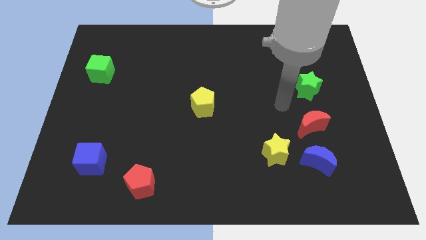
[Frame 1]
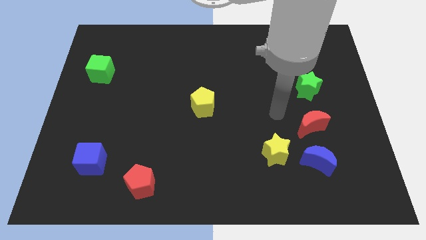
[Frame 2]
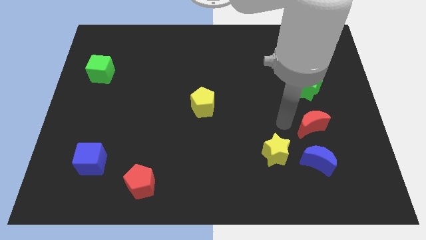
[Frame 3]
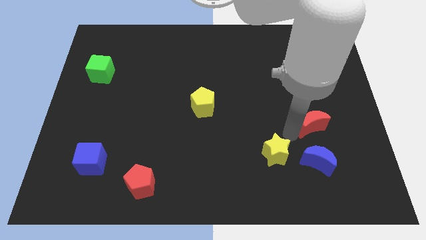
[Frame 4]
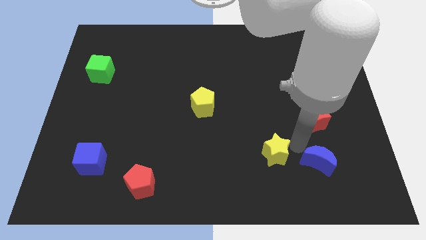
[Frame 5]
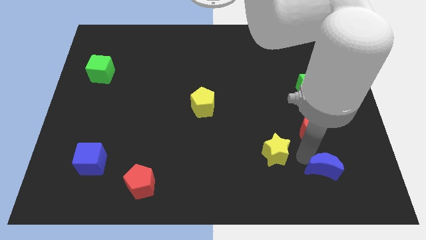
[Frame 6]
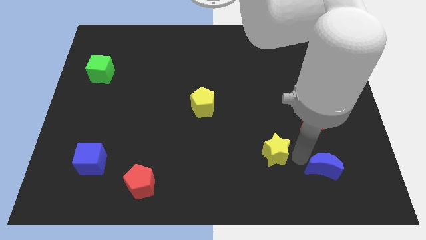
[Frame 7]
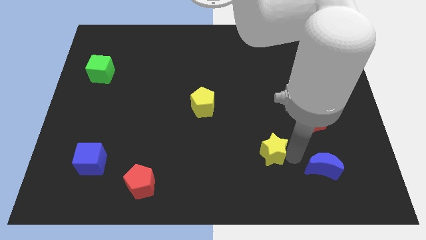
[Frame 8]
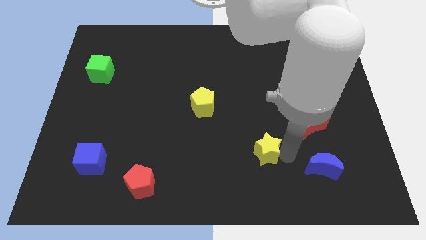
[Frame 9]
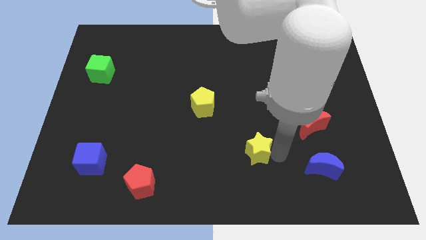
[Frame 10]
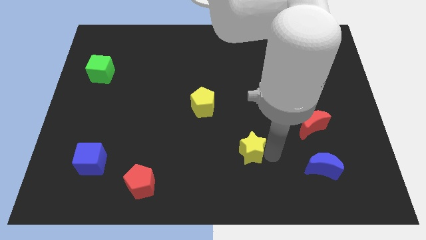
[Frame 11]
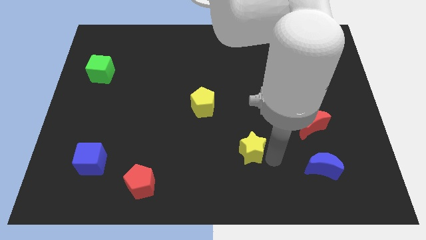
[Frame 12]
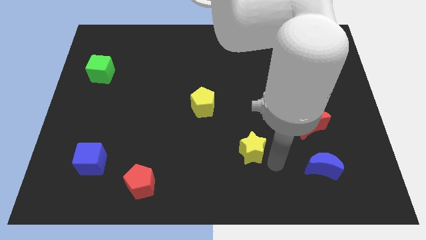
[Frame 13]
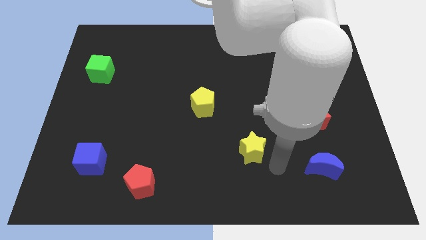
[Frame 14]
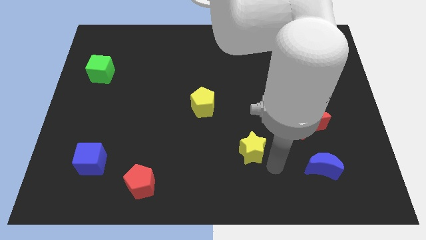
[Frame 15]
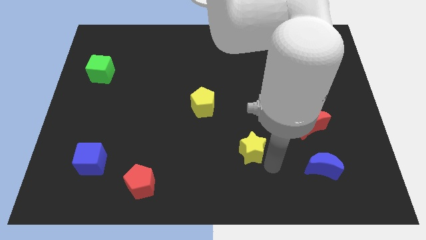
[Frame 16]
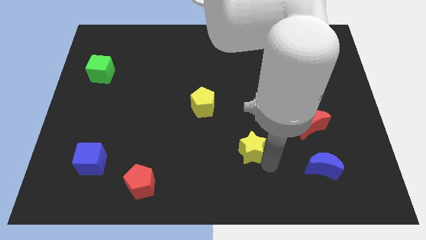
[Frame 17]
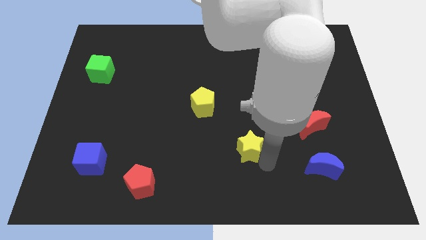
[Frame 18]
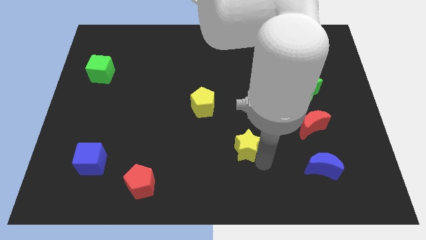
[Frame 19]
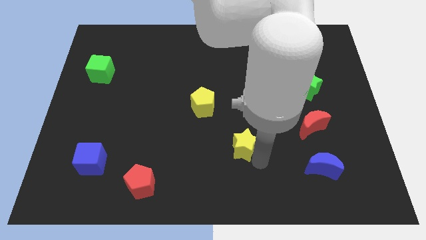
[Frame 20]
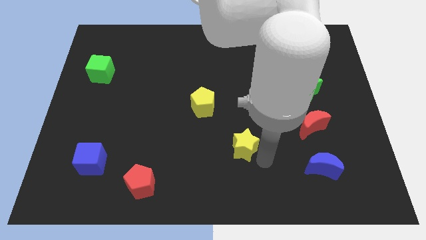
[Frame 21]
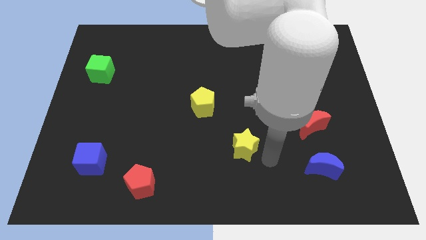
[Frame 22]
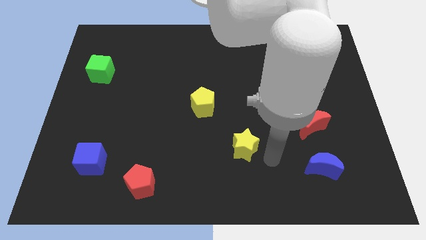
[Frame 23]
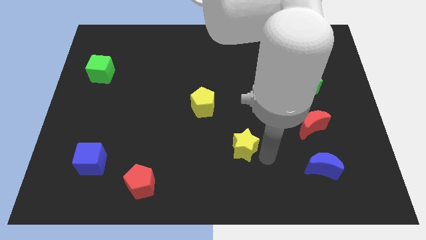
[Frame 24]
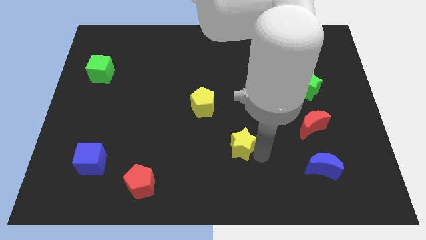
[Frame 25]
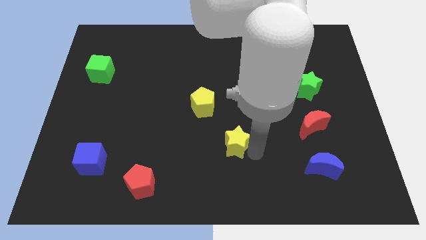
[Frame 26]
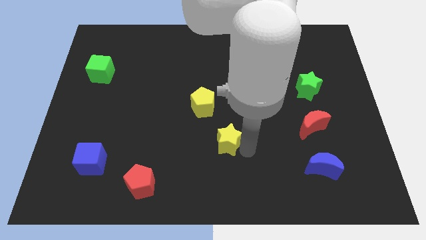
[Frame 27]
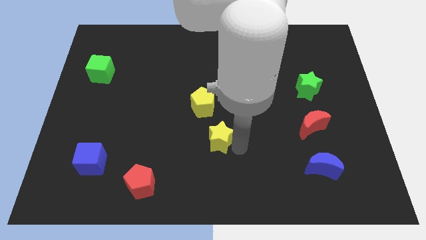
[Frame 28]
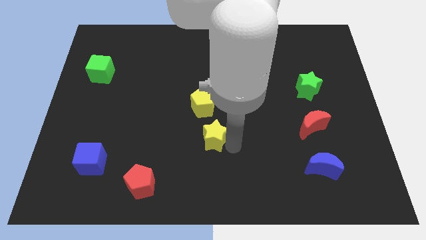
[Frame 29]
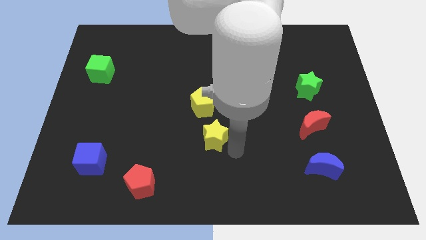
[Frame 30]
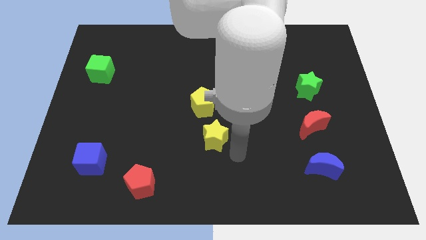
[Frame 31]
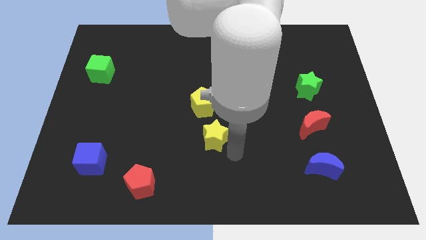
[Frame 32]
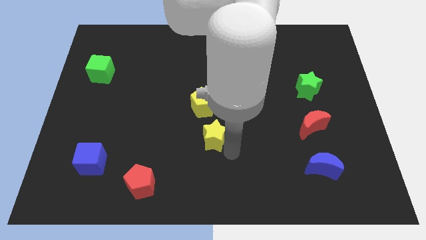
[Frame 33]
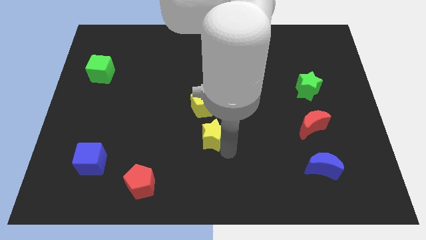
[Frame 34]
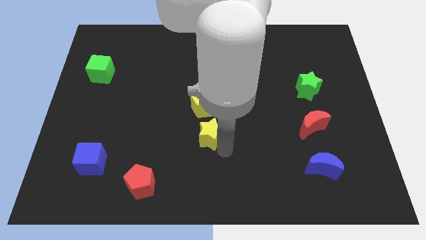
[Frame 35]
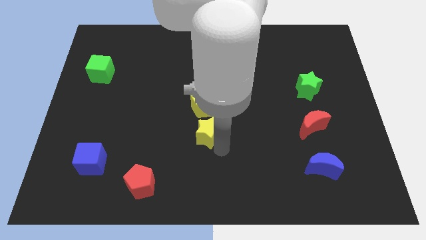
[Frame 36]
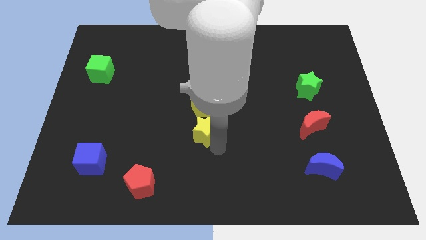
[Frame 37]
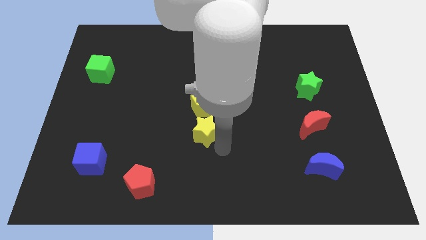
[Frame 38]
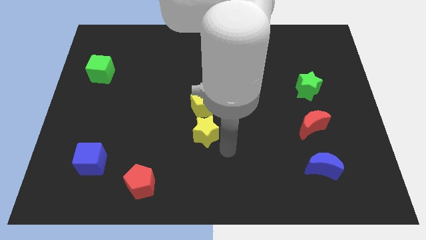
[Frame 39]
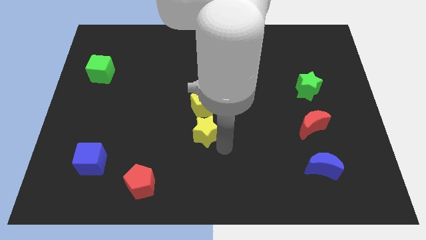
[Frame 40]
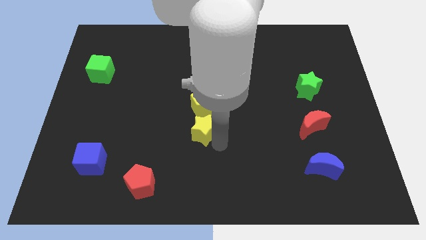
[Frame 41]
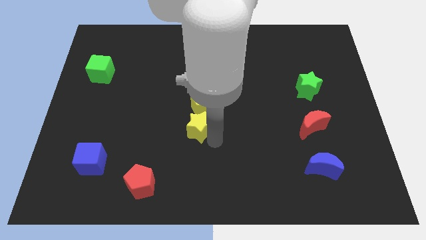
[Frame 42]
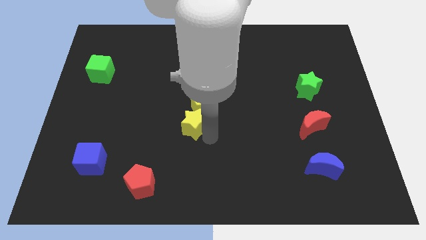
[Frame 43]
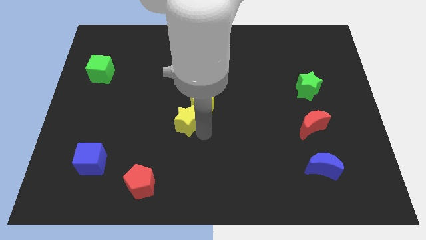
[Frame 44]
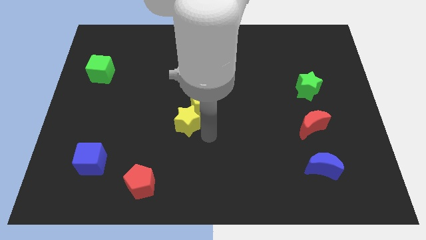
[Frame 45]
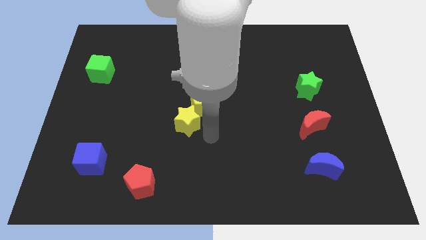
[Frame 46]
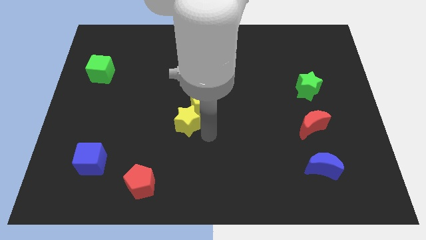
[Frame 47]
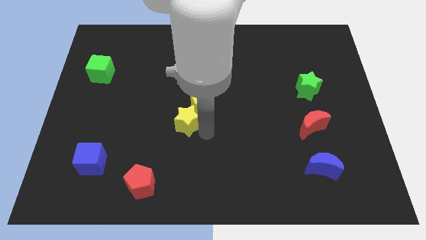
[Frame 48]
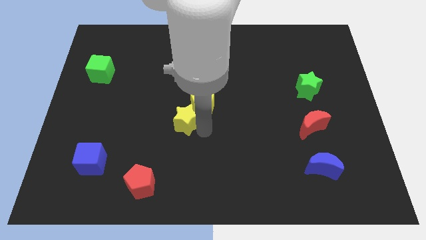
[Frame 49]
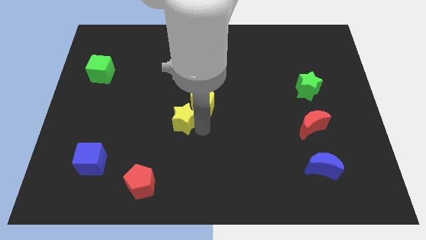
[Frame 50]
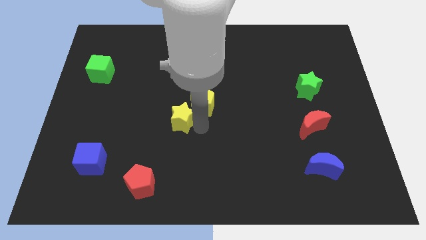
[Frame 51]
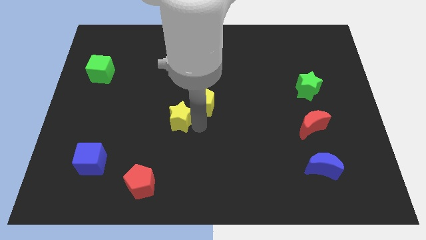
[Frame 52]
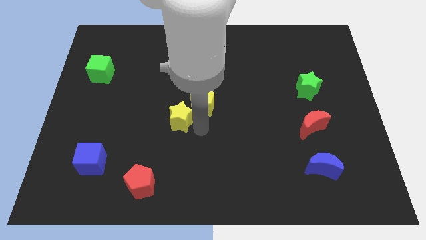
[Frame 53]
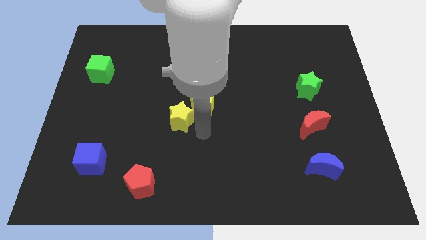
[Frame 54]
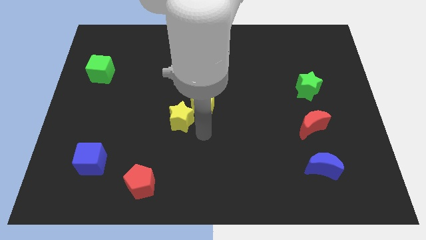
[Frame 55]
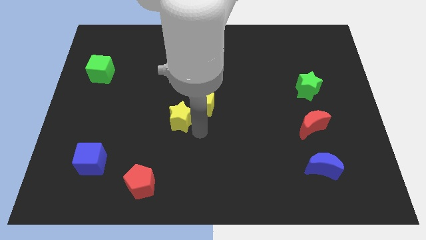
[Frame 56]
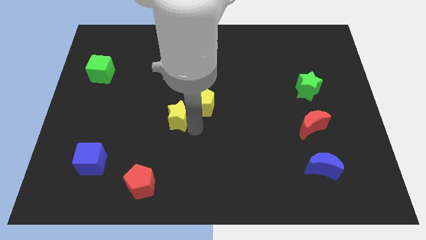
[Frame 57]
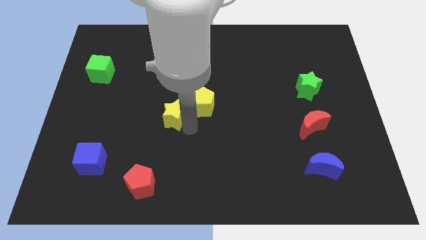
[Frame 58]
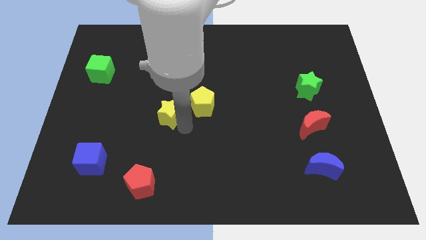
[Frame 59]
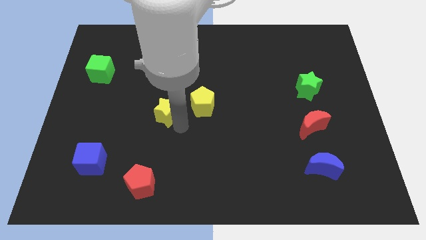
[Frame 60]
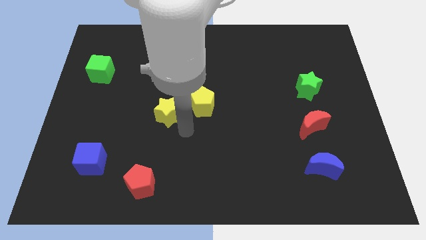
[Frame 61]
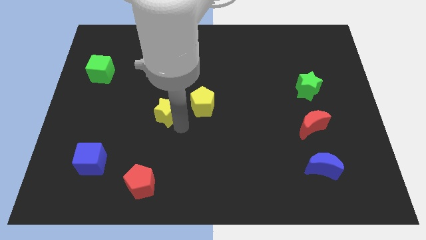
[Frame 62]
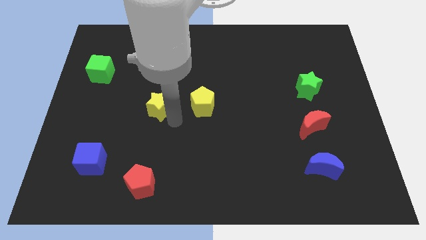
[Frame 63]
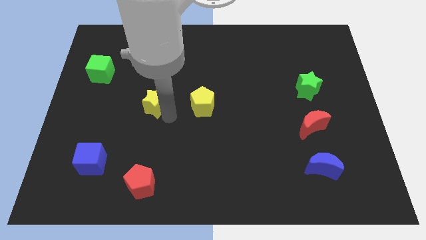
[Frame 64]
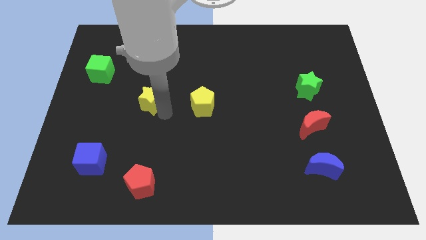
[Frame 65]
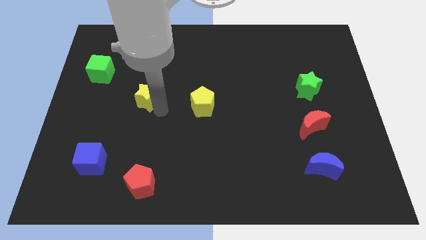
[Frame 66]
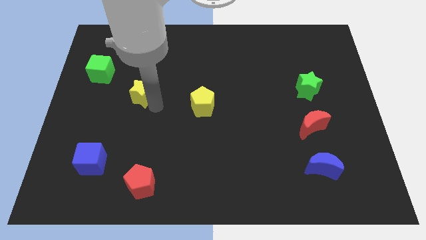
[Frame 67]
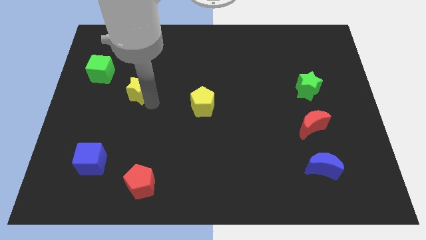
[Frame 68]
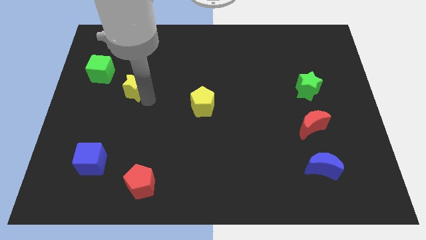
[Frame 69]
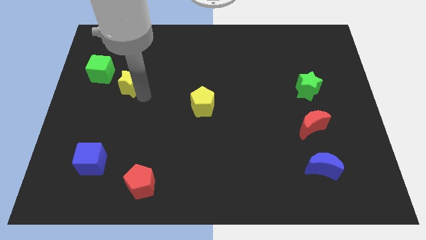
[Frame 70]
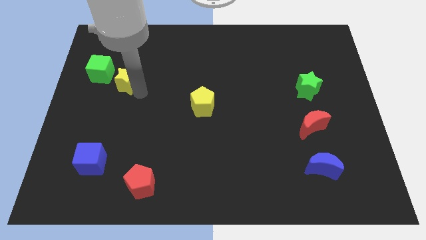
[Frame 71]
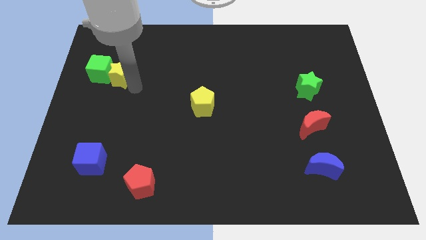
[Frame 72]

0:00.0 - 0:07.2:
put the yellow star close to the green cube
